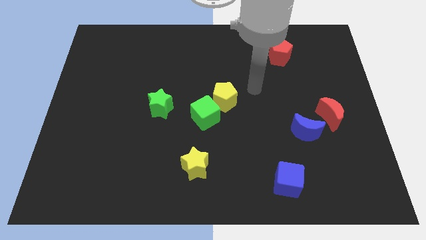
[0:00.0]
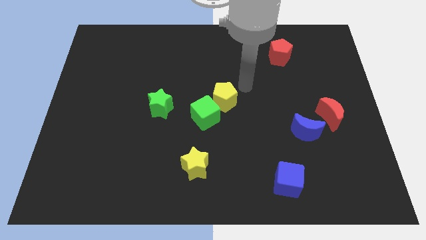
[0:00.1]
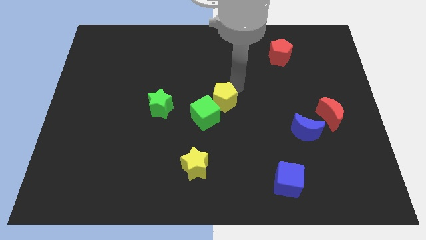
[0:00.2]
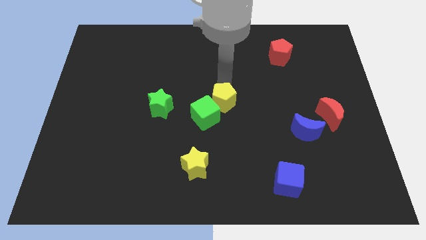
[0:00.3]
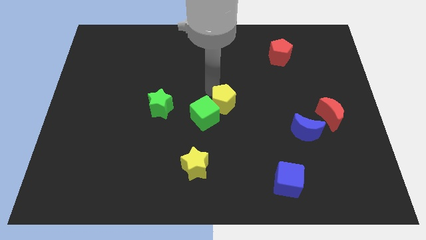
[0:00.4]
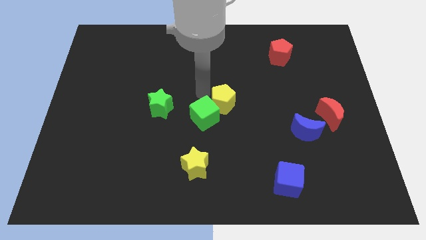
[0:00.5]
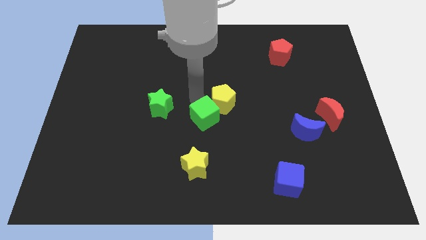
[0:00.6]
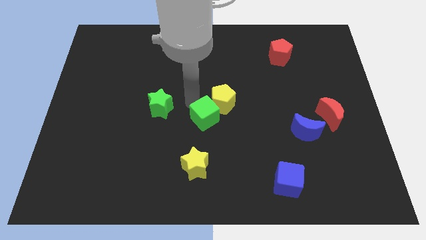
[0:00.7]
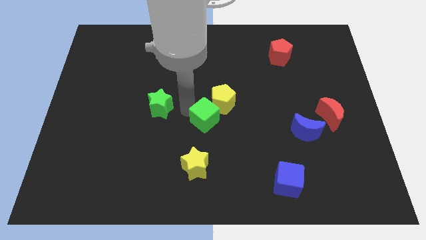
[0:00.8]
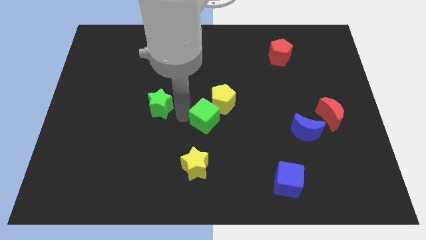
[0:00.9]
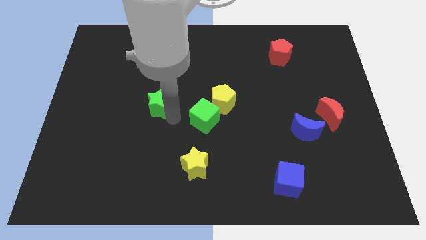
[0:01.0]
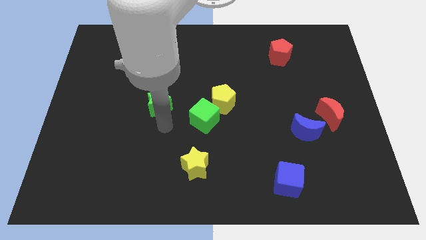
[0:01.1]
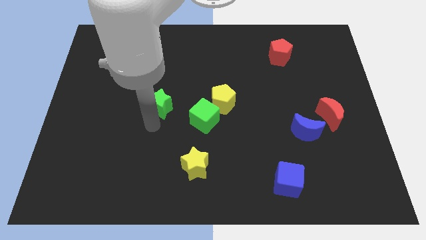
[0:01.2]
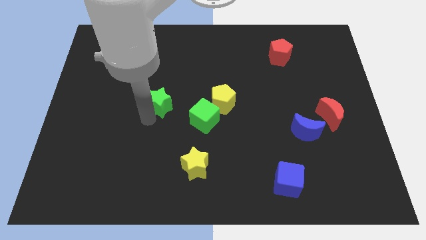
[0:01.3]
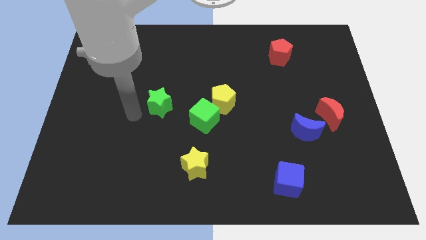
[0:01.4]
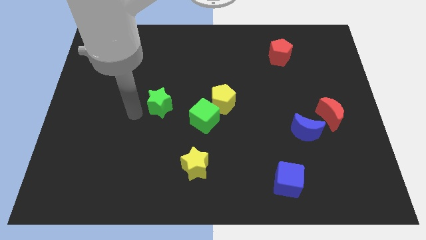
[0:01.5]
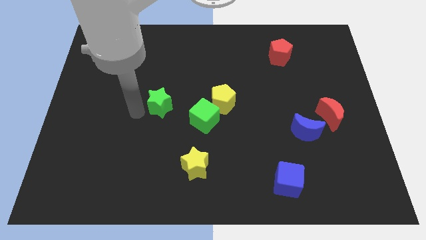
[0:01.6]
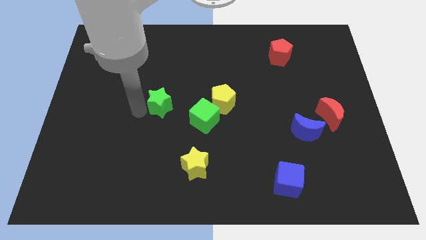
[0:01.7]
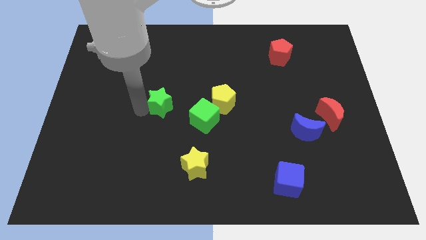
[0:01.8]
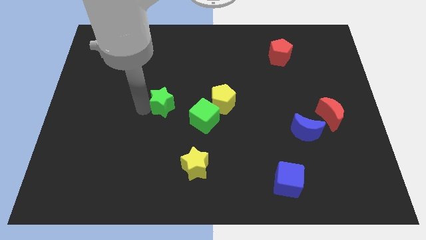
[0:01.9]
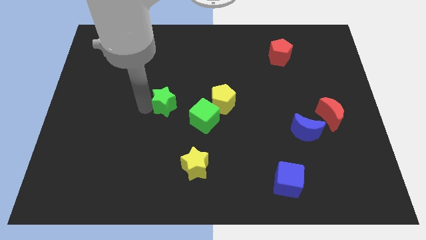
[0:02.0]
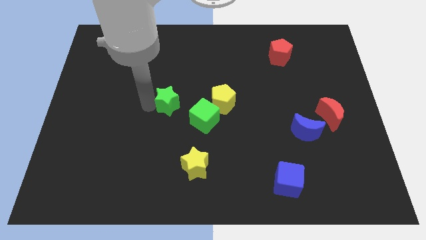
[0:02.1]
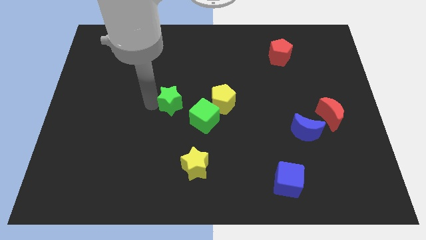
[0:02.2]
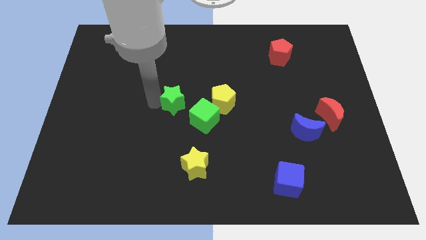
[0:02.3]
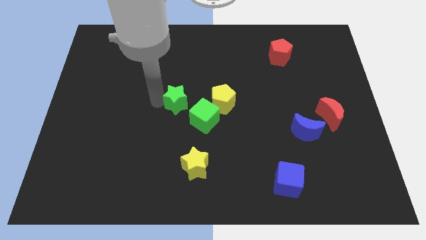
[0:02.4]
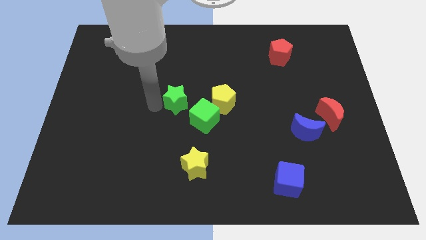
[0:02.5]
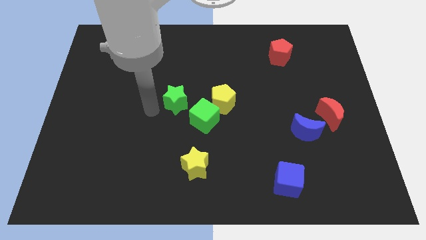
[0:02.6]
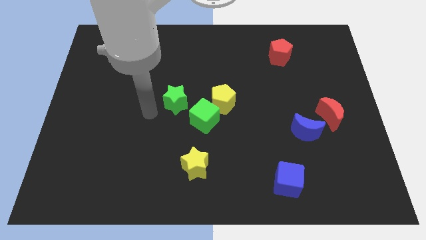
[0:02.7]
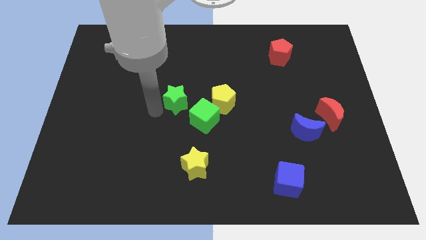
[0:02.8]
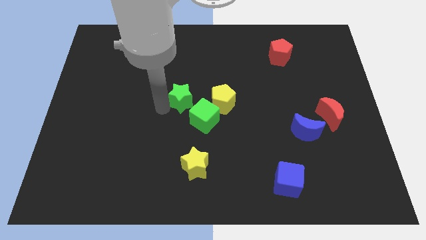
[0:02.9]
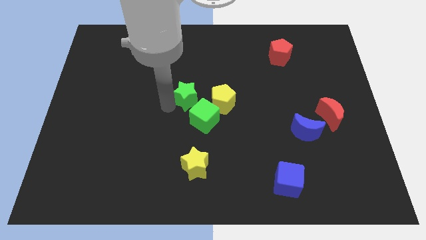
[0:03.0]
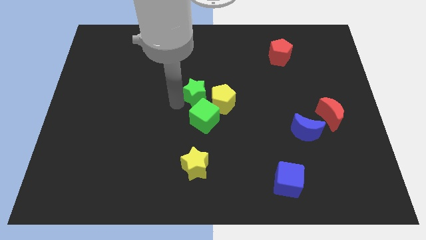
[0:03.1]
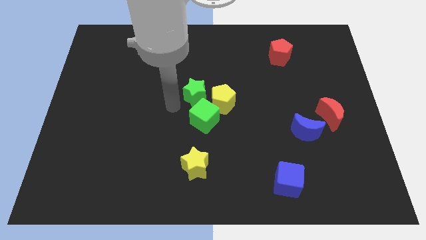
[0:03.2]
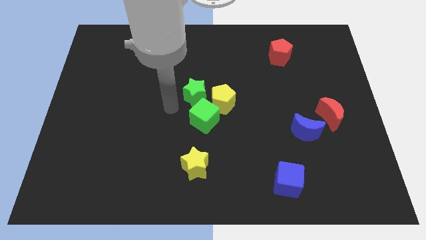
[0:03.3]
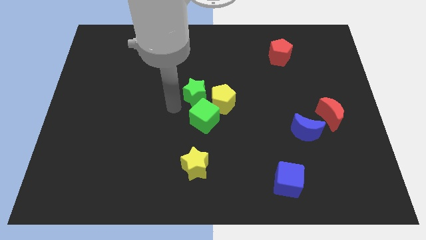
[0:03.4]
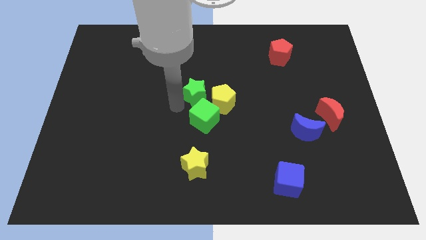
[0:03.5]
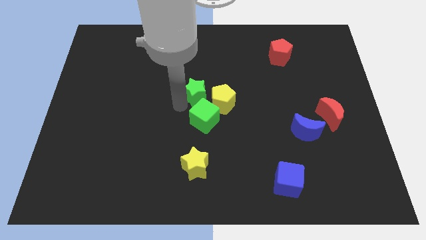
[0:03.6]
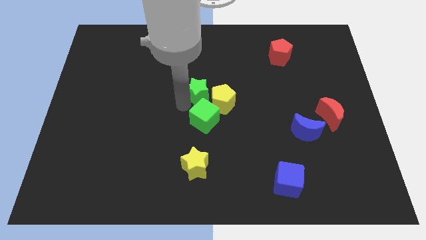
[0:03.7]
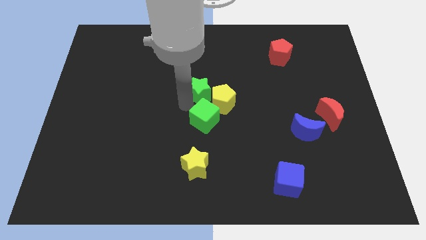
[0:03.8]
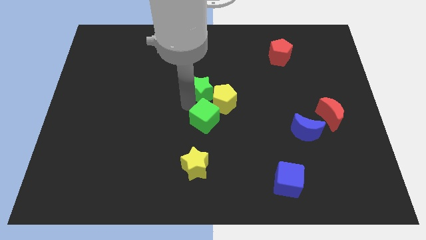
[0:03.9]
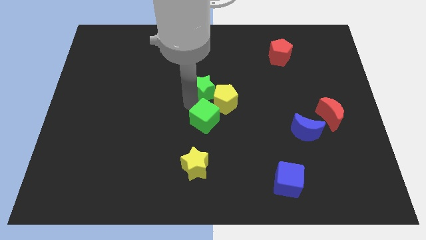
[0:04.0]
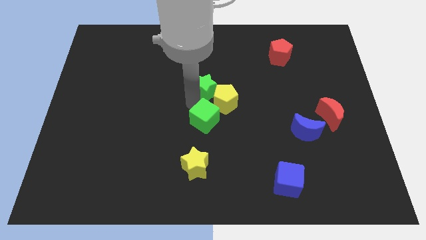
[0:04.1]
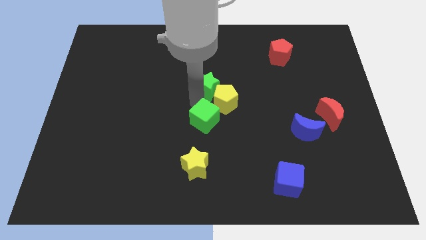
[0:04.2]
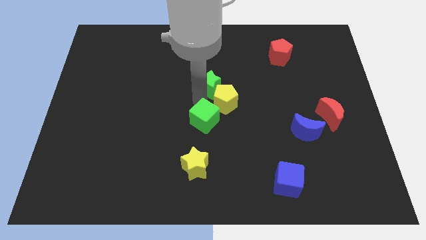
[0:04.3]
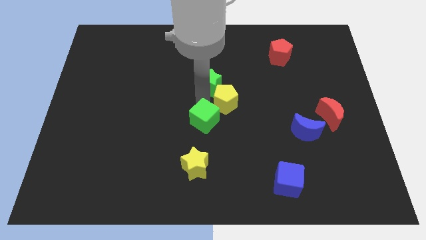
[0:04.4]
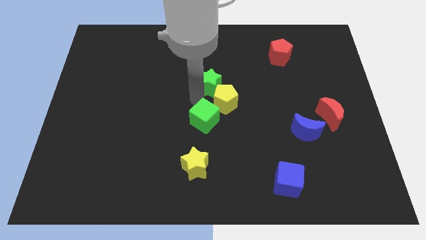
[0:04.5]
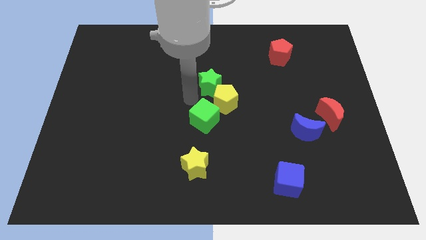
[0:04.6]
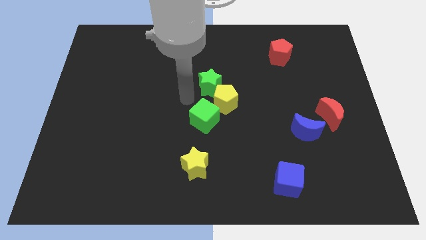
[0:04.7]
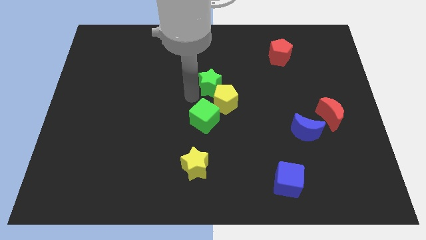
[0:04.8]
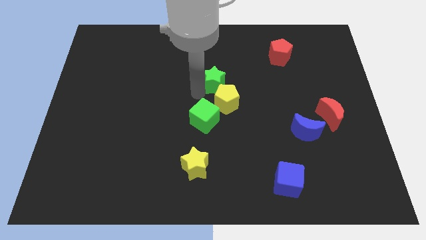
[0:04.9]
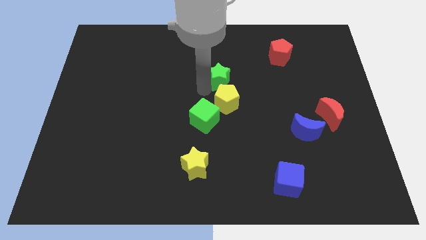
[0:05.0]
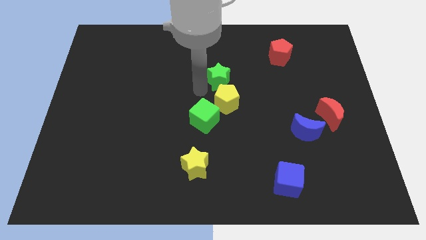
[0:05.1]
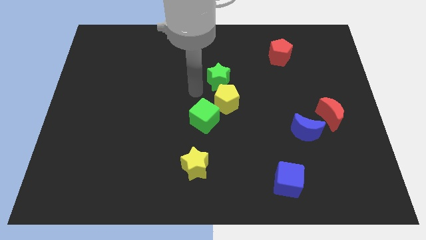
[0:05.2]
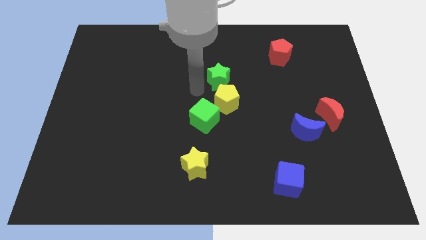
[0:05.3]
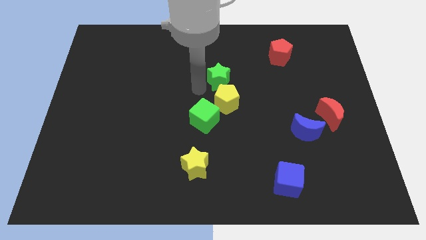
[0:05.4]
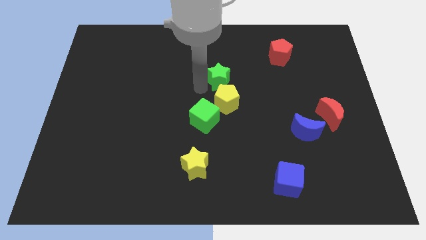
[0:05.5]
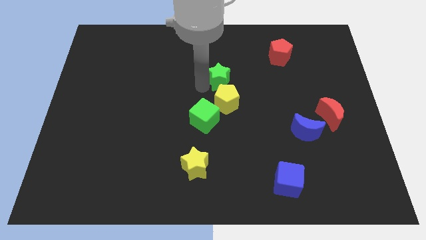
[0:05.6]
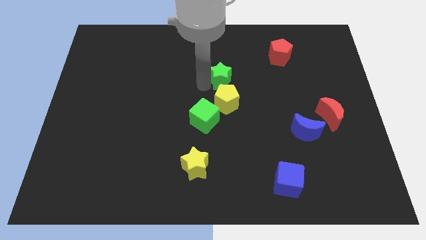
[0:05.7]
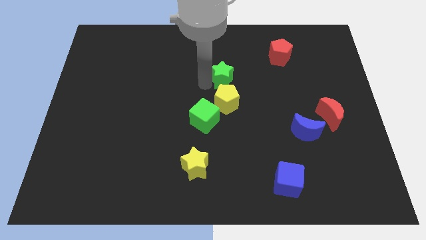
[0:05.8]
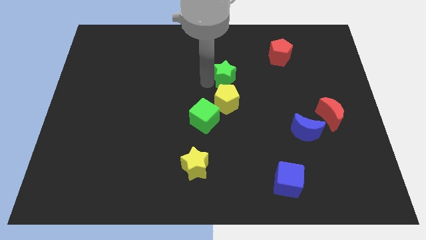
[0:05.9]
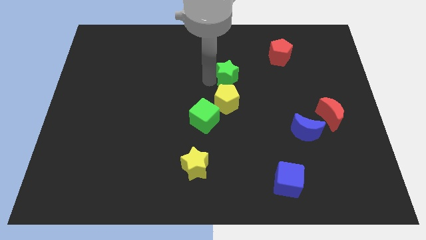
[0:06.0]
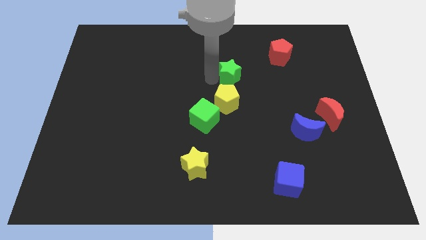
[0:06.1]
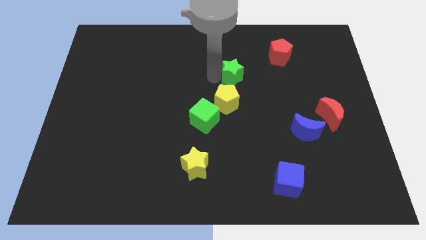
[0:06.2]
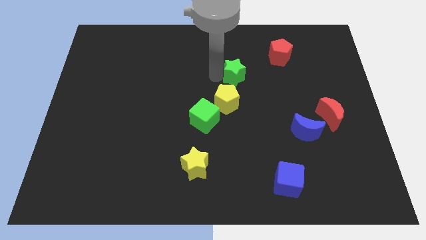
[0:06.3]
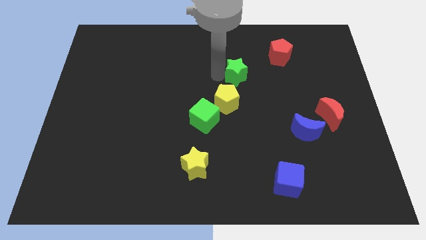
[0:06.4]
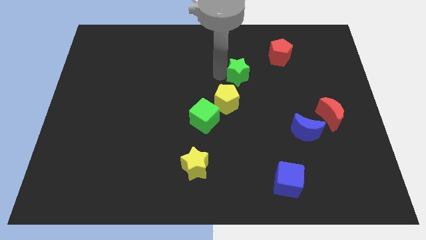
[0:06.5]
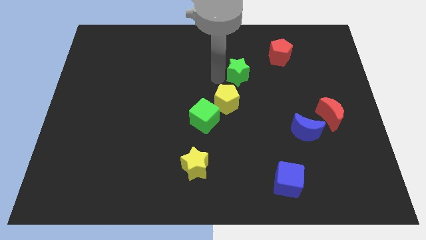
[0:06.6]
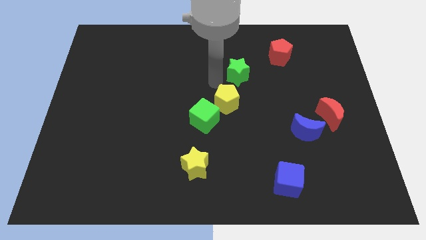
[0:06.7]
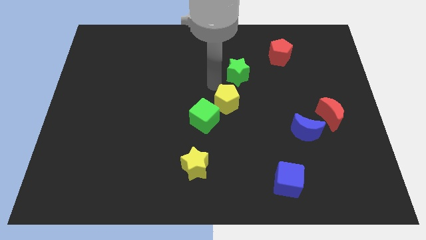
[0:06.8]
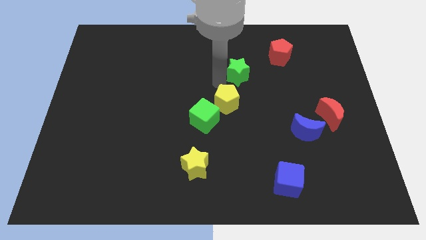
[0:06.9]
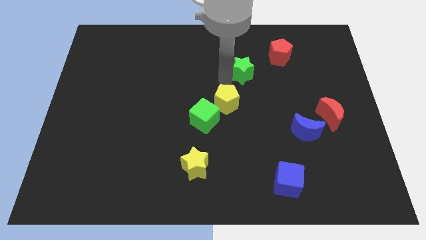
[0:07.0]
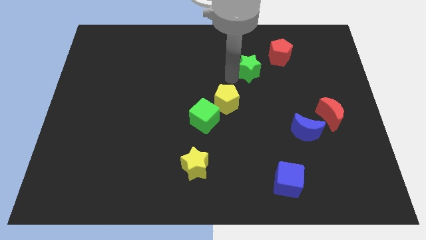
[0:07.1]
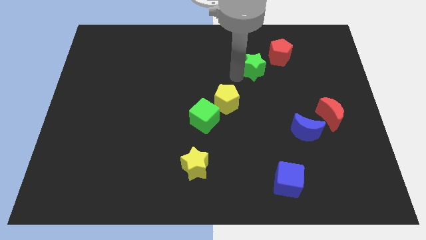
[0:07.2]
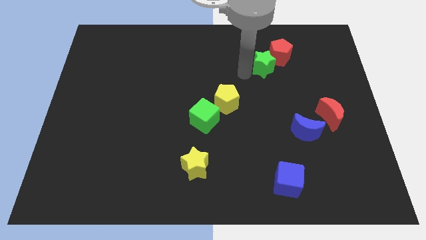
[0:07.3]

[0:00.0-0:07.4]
move the green star towards the red pentagon

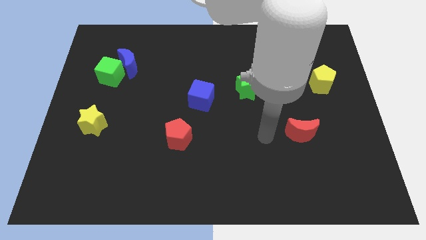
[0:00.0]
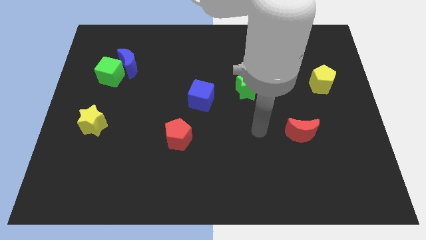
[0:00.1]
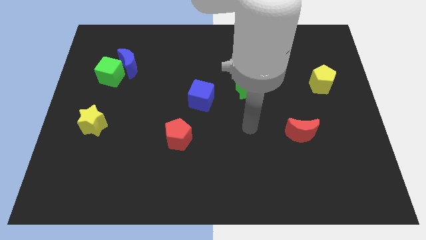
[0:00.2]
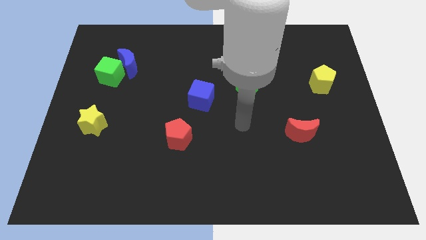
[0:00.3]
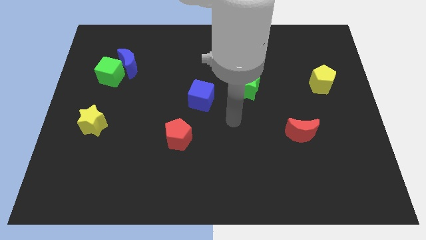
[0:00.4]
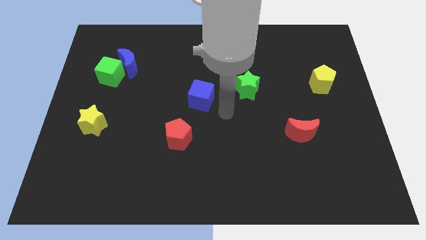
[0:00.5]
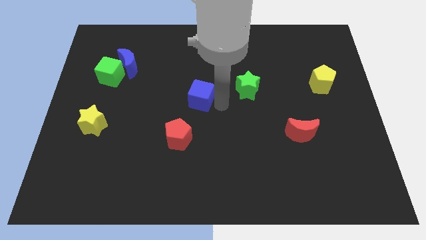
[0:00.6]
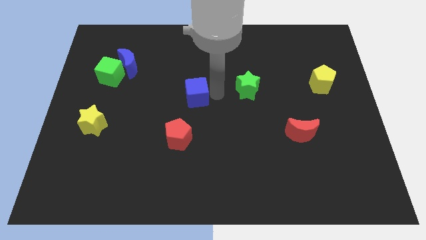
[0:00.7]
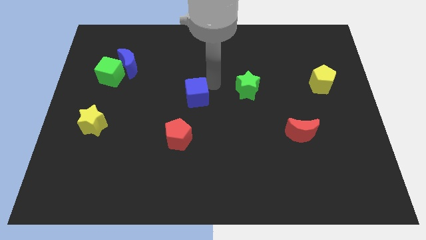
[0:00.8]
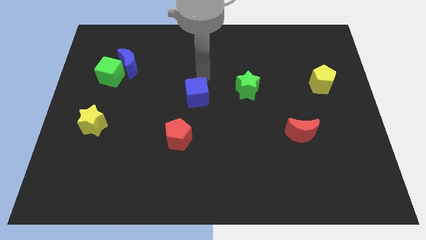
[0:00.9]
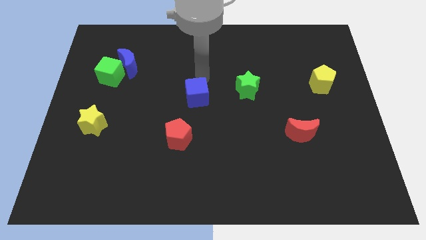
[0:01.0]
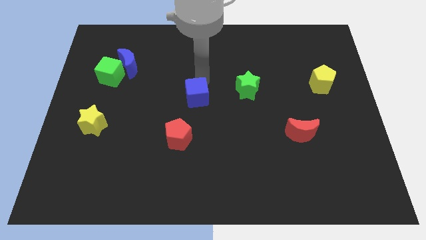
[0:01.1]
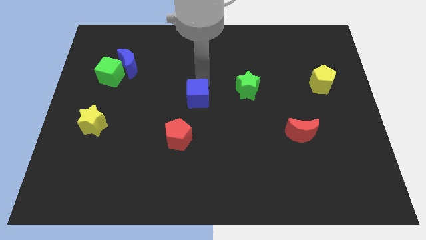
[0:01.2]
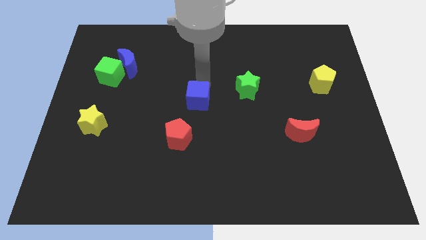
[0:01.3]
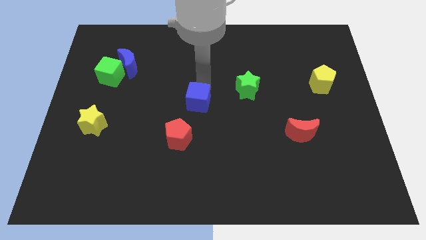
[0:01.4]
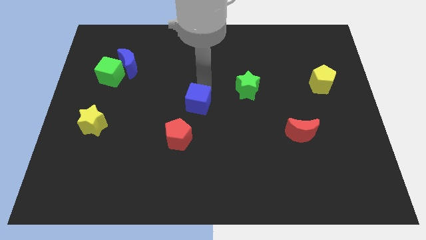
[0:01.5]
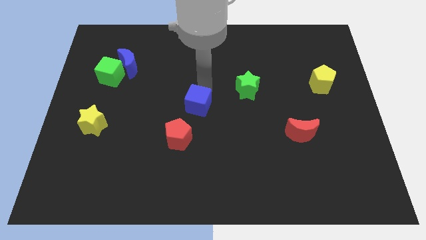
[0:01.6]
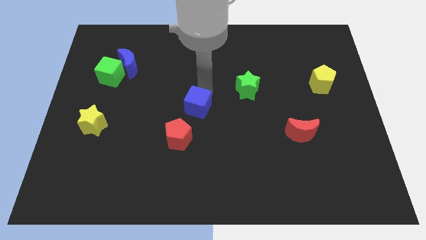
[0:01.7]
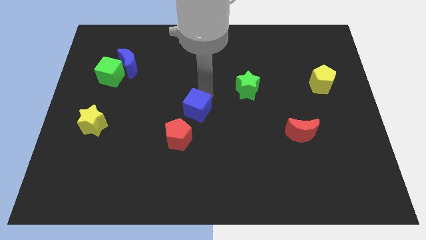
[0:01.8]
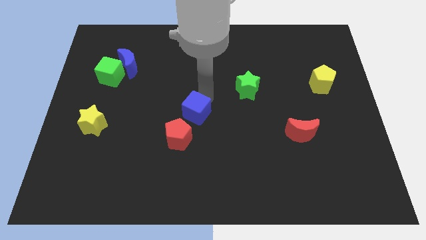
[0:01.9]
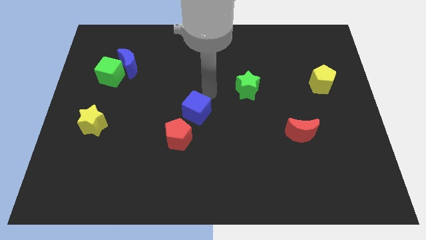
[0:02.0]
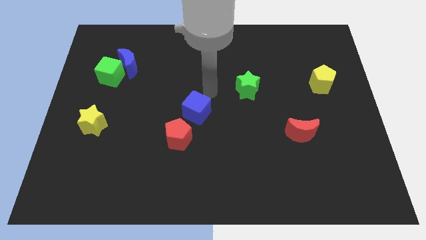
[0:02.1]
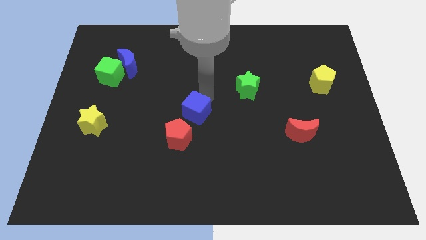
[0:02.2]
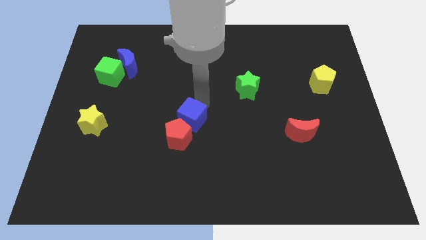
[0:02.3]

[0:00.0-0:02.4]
push the blue cube towards the red pentagon
